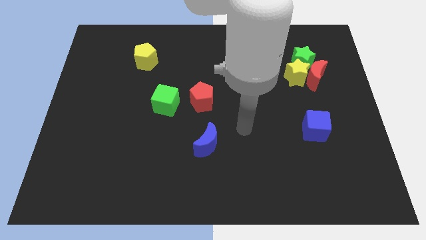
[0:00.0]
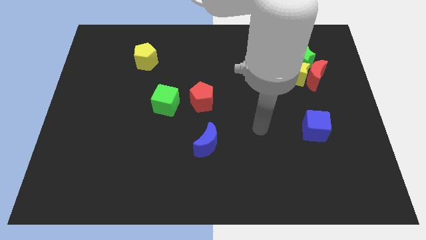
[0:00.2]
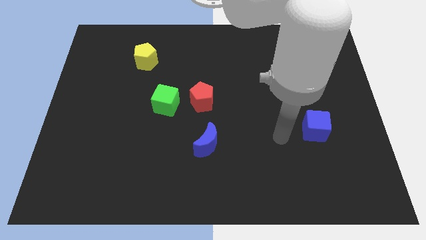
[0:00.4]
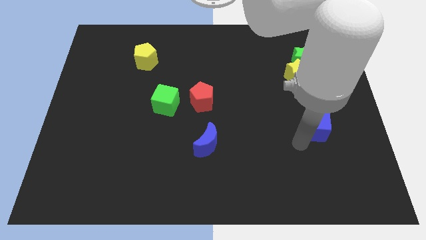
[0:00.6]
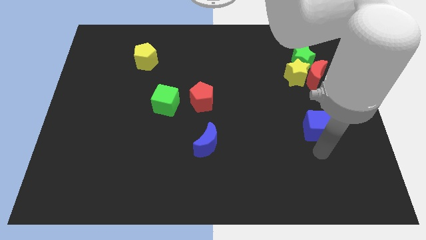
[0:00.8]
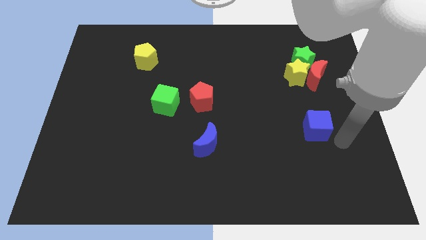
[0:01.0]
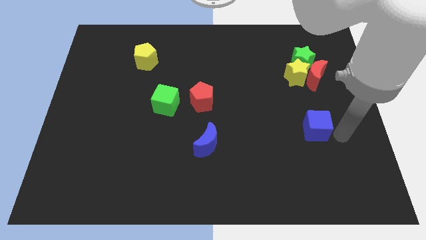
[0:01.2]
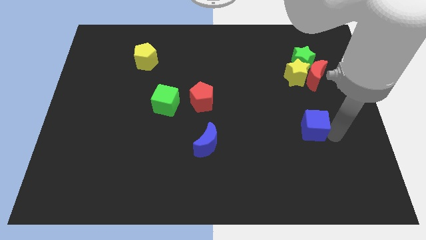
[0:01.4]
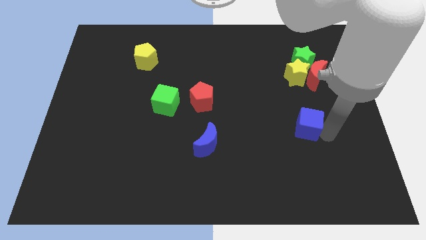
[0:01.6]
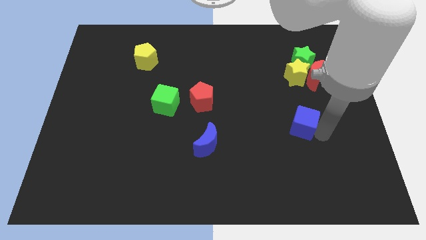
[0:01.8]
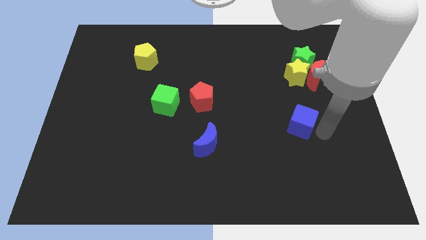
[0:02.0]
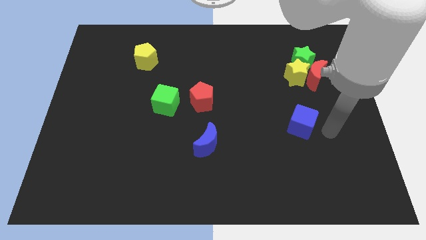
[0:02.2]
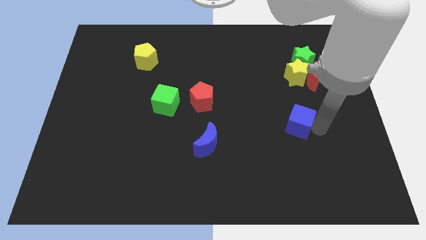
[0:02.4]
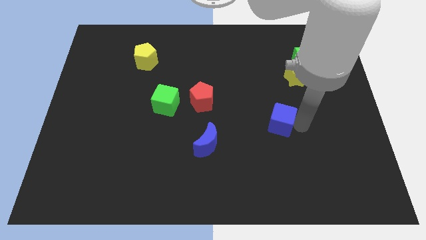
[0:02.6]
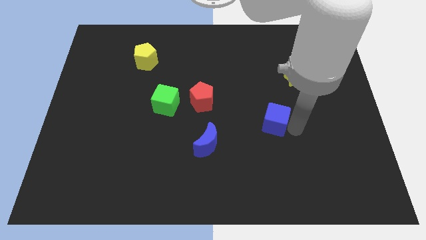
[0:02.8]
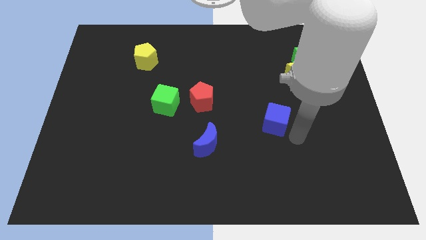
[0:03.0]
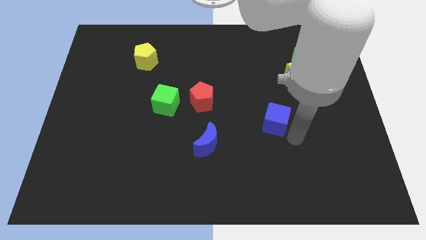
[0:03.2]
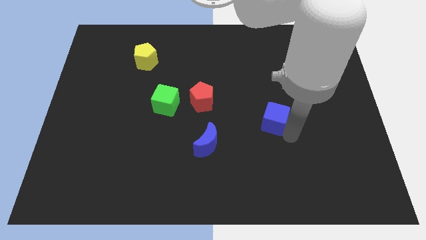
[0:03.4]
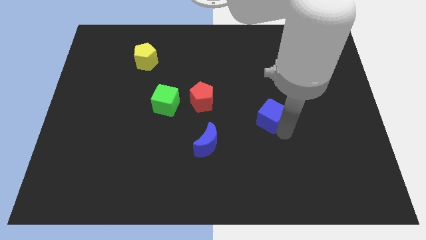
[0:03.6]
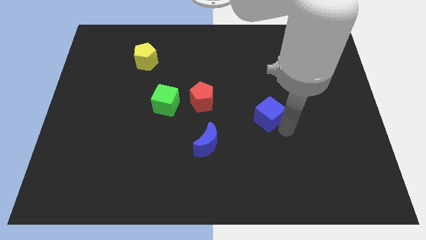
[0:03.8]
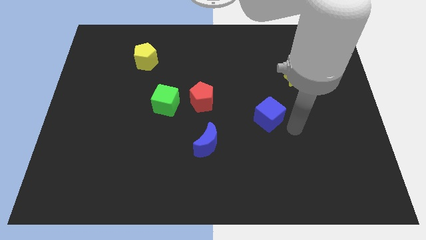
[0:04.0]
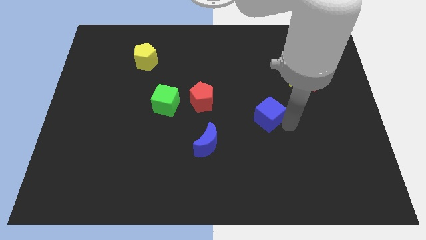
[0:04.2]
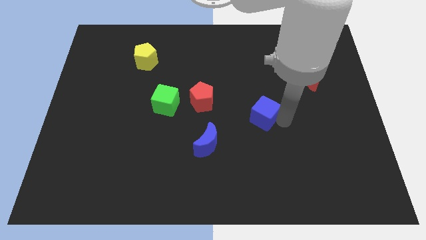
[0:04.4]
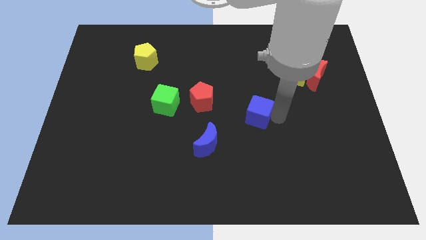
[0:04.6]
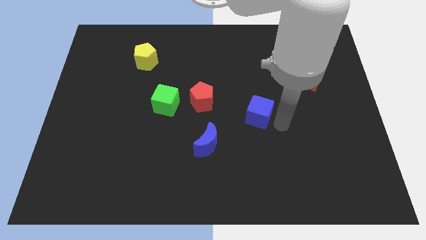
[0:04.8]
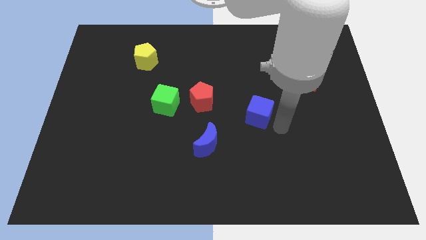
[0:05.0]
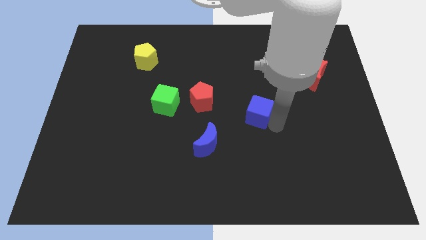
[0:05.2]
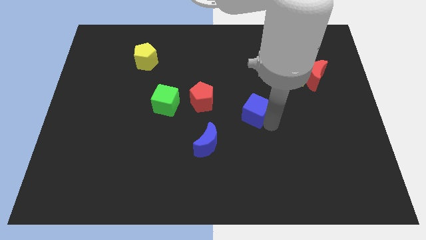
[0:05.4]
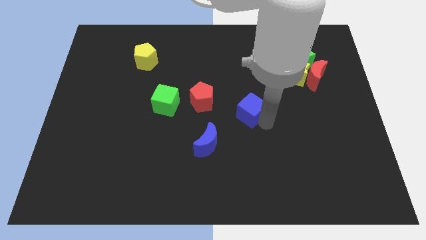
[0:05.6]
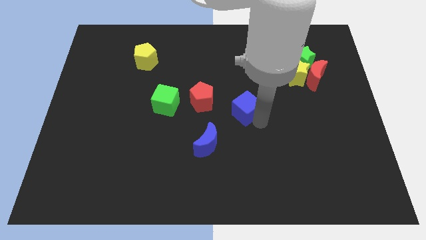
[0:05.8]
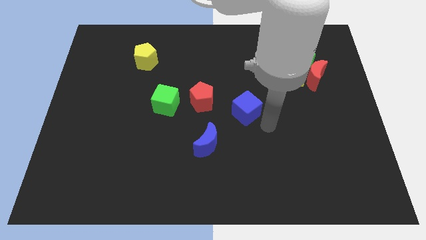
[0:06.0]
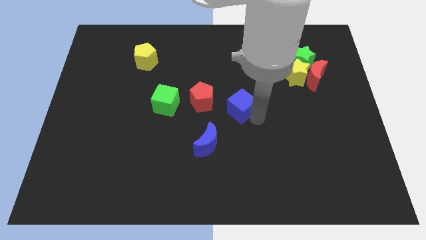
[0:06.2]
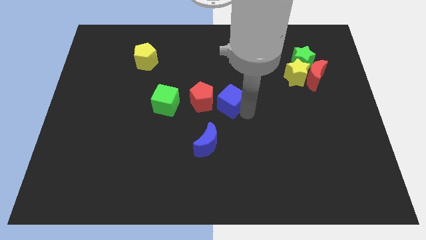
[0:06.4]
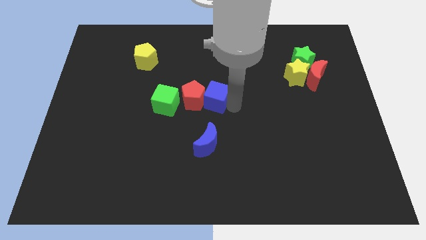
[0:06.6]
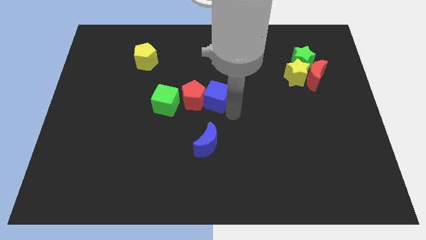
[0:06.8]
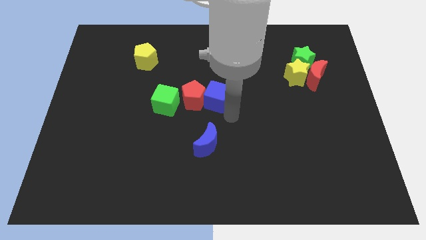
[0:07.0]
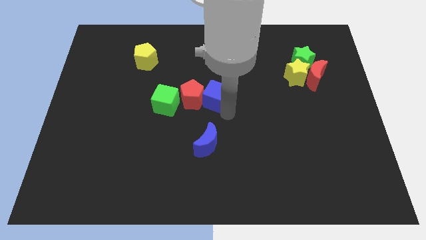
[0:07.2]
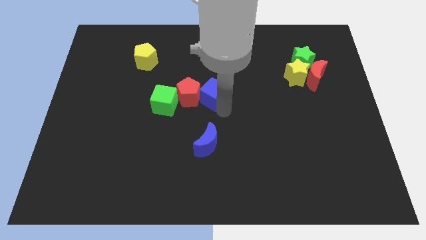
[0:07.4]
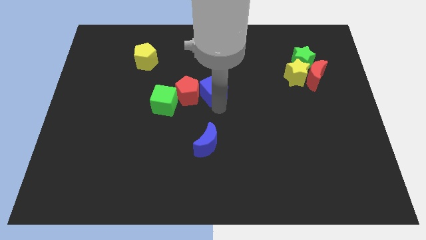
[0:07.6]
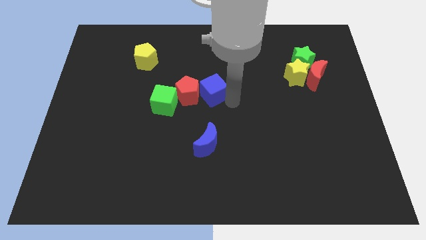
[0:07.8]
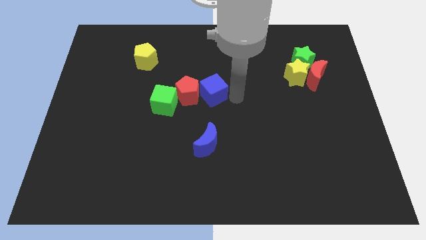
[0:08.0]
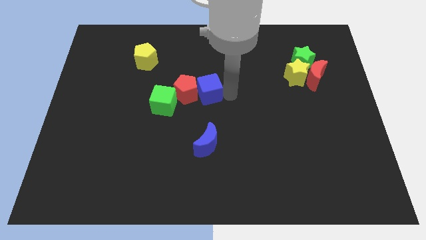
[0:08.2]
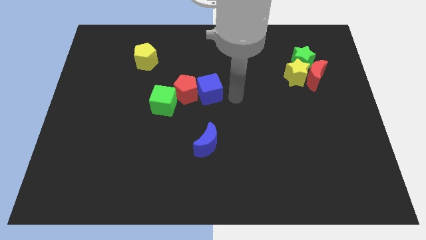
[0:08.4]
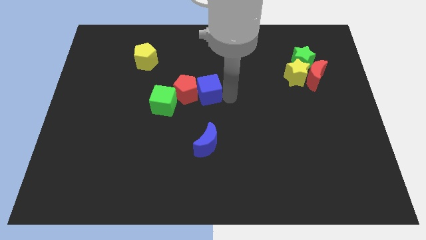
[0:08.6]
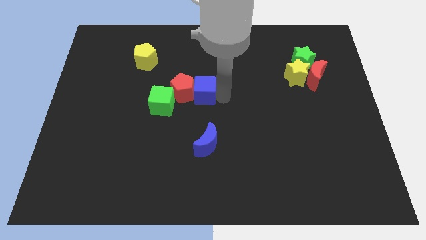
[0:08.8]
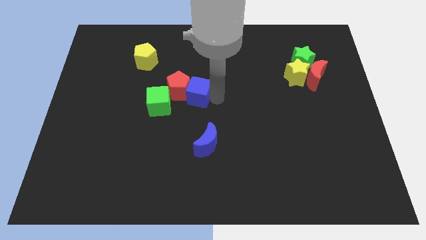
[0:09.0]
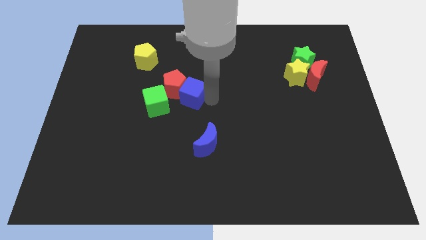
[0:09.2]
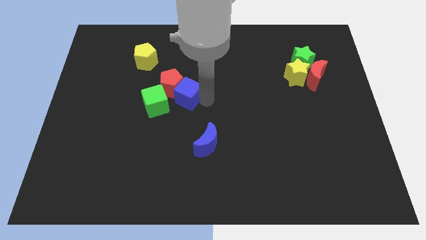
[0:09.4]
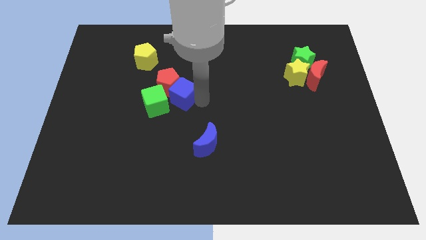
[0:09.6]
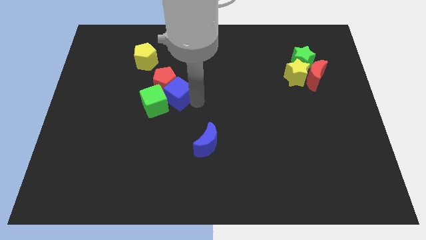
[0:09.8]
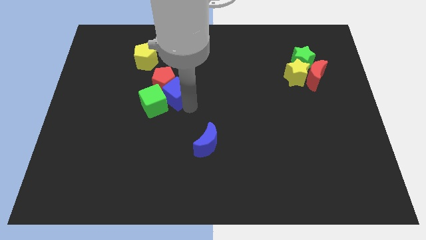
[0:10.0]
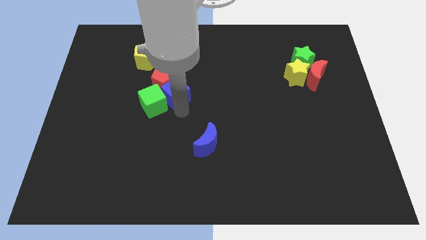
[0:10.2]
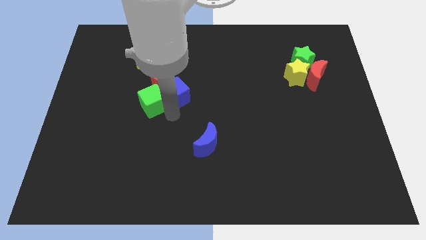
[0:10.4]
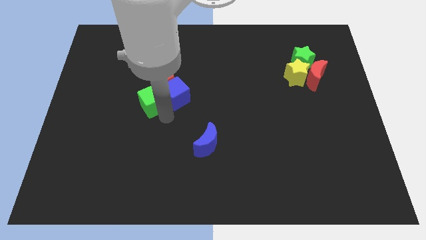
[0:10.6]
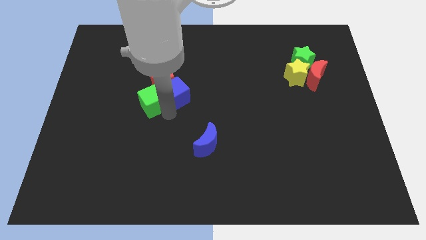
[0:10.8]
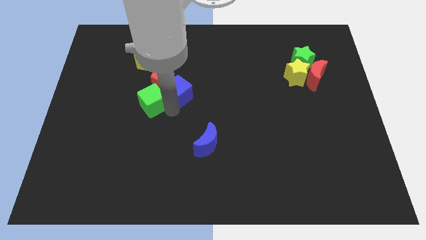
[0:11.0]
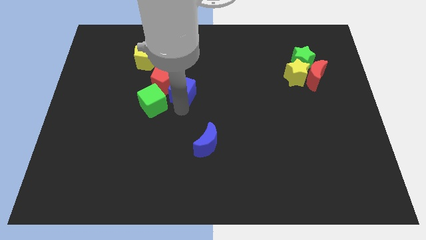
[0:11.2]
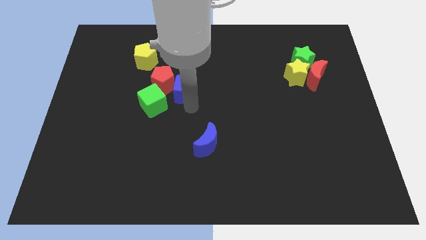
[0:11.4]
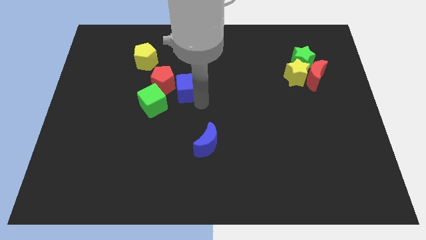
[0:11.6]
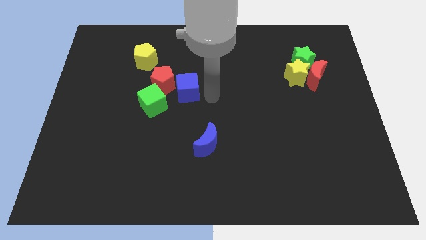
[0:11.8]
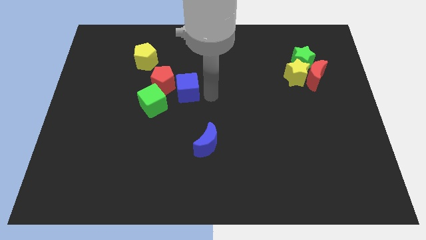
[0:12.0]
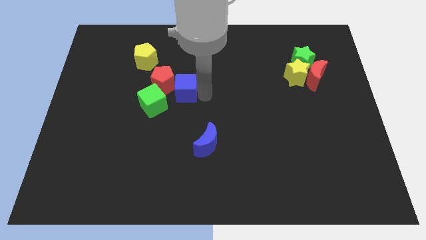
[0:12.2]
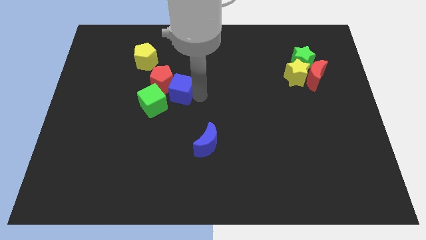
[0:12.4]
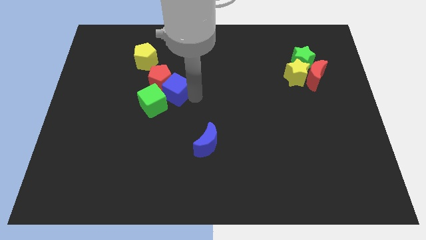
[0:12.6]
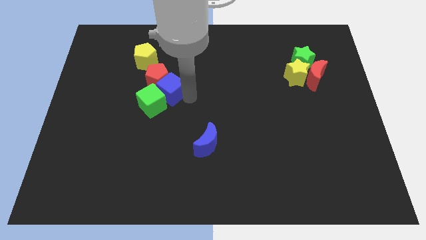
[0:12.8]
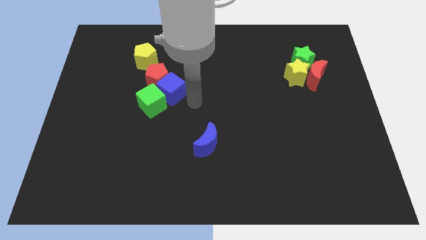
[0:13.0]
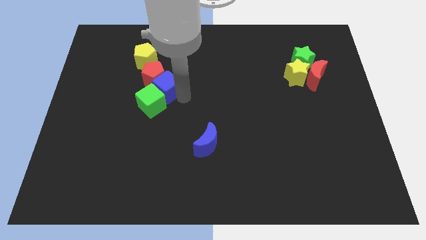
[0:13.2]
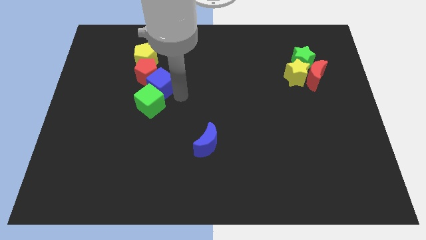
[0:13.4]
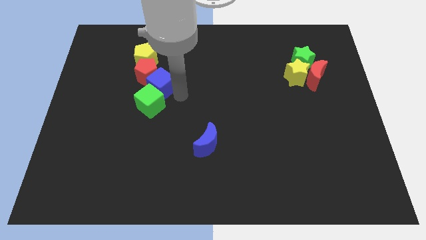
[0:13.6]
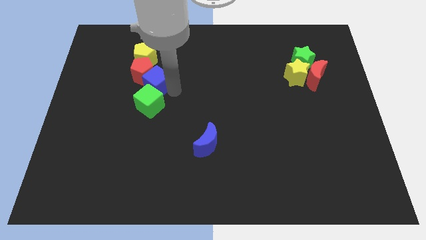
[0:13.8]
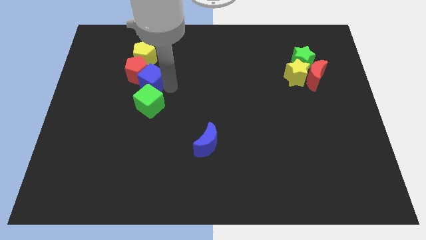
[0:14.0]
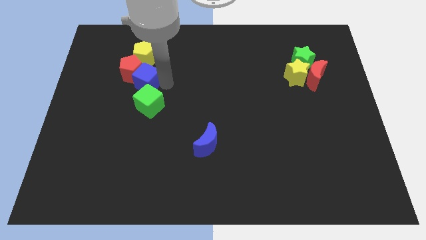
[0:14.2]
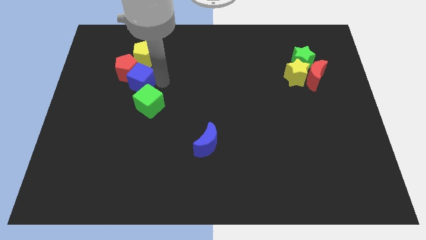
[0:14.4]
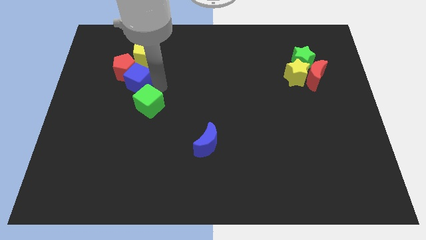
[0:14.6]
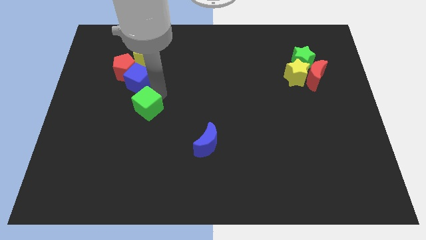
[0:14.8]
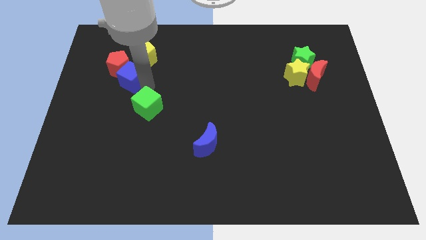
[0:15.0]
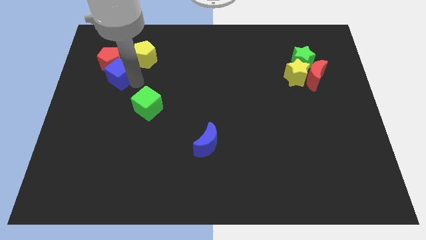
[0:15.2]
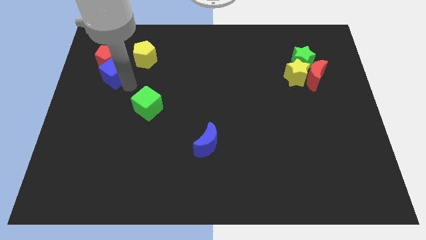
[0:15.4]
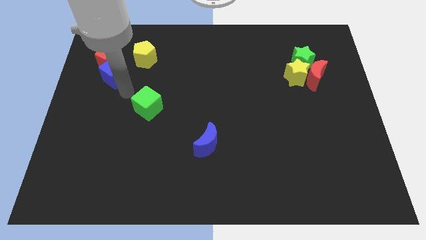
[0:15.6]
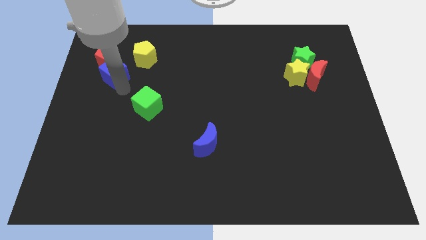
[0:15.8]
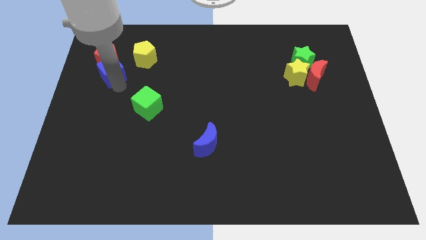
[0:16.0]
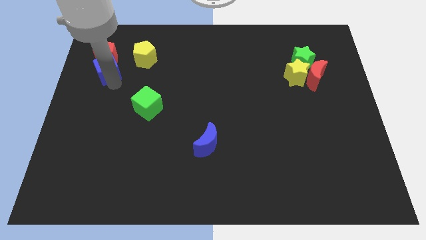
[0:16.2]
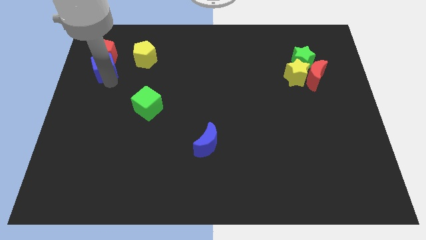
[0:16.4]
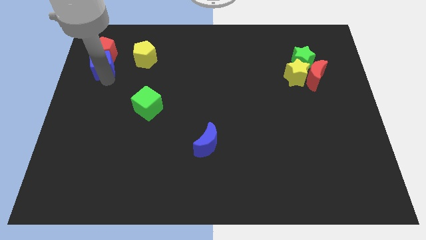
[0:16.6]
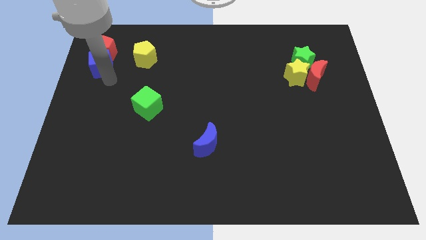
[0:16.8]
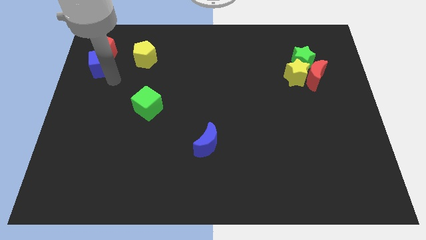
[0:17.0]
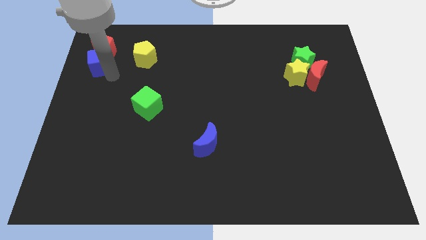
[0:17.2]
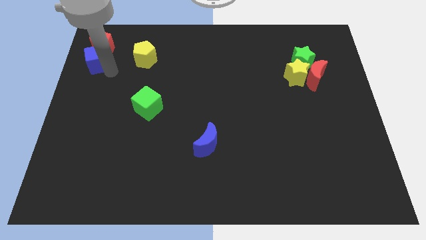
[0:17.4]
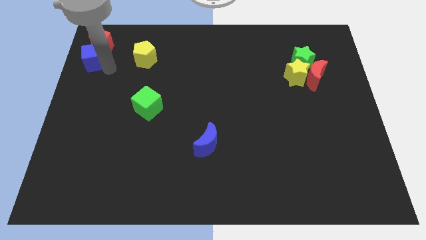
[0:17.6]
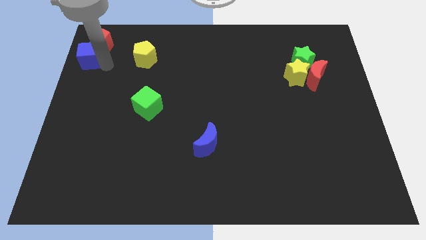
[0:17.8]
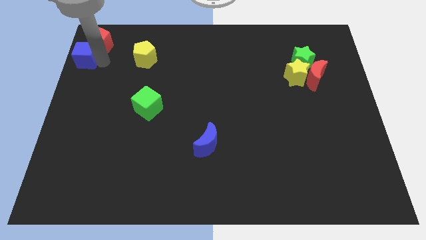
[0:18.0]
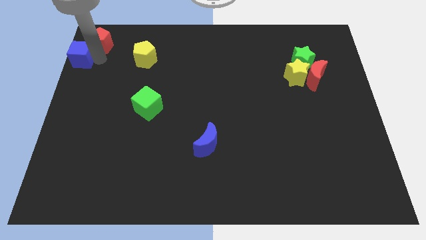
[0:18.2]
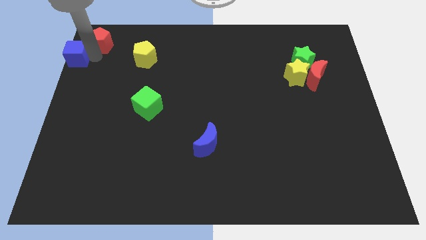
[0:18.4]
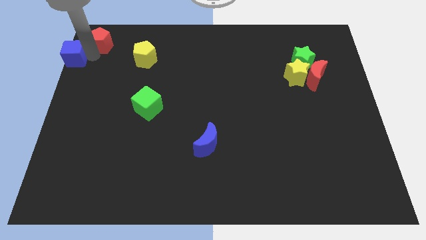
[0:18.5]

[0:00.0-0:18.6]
put the blue cube to the top left of the board
